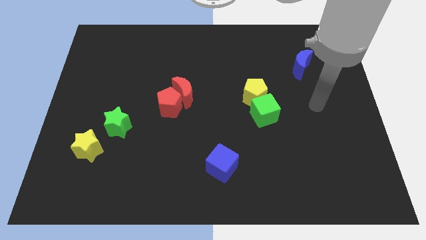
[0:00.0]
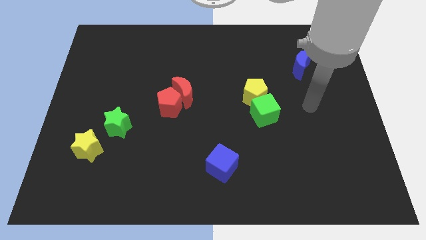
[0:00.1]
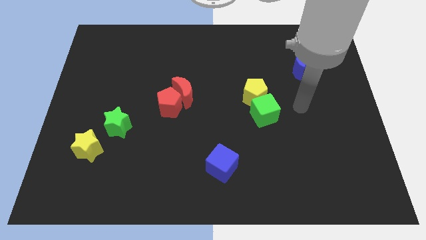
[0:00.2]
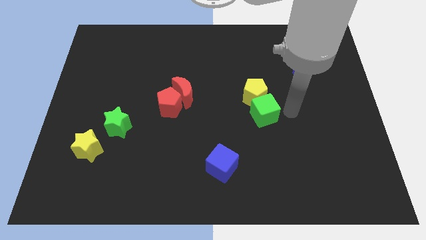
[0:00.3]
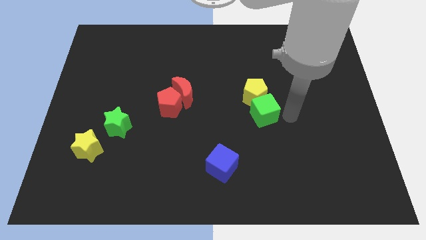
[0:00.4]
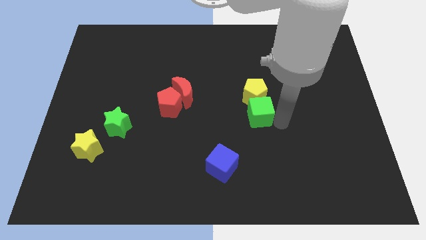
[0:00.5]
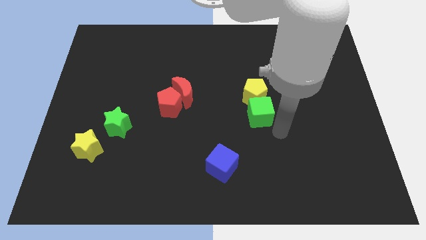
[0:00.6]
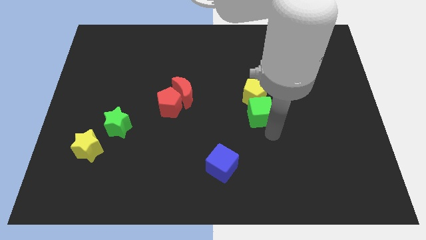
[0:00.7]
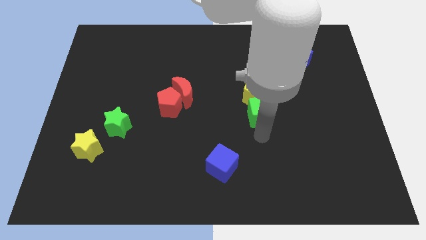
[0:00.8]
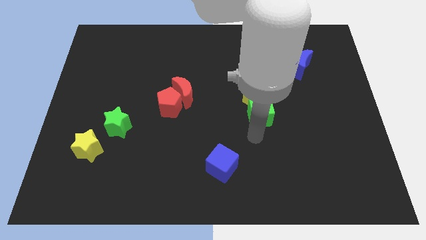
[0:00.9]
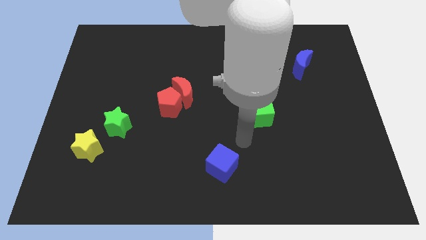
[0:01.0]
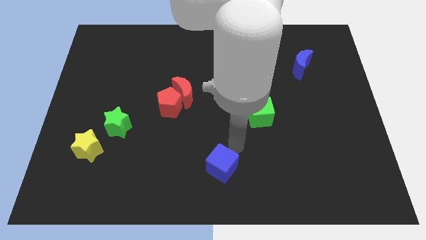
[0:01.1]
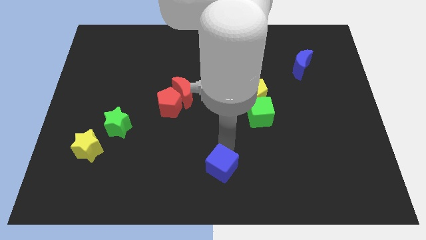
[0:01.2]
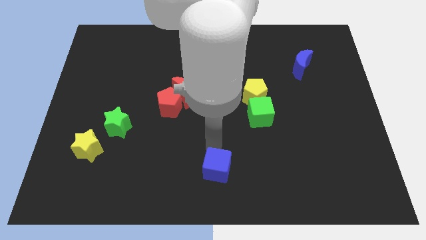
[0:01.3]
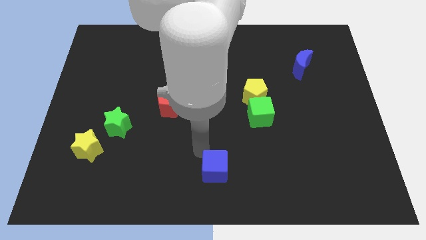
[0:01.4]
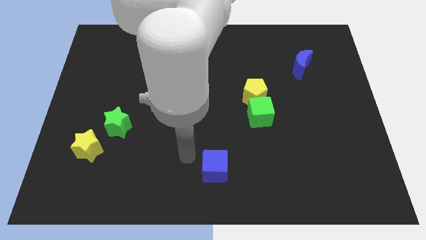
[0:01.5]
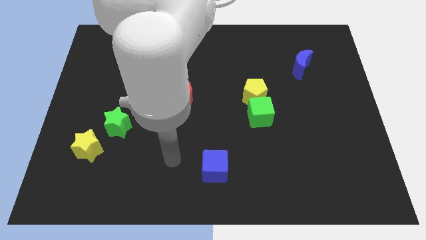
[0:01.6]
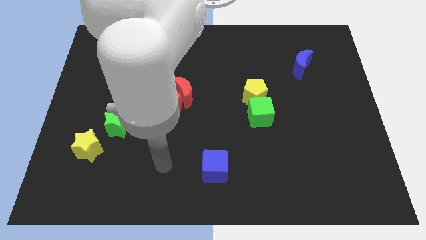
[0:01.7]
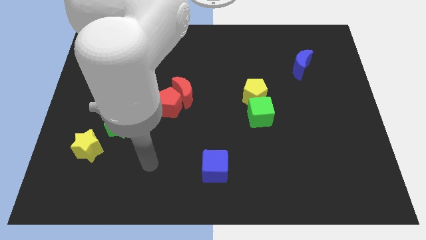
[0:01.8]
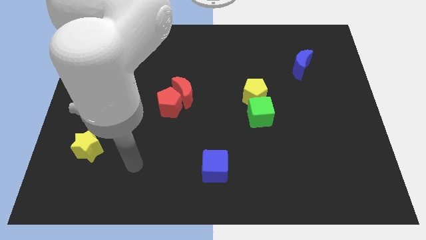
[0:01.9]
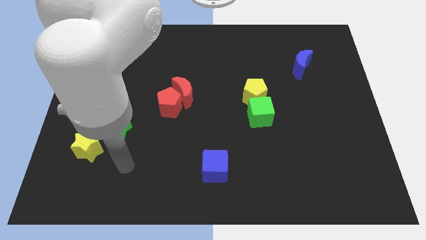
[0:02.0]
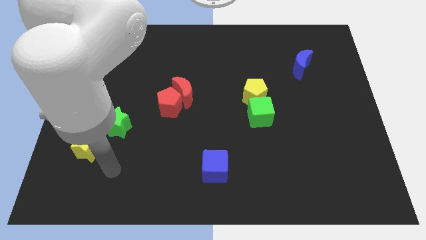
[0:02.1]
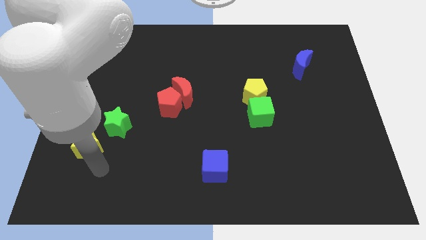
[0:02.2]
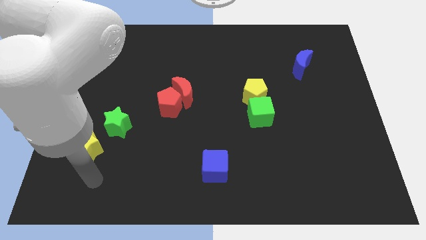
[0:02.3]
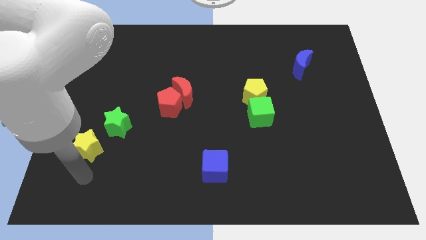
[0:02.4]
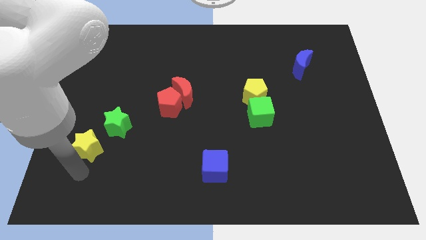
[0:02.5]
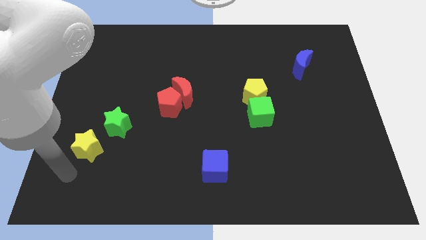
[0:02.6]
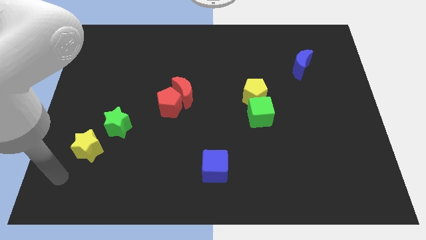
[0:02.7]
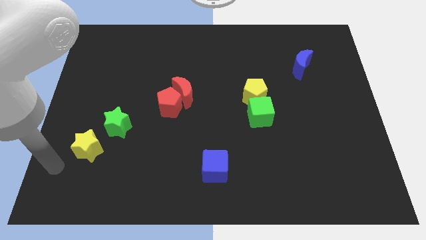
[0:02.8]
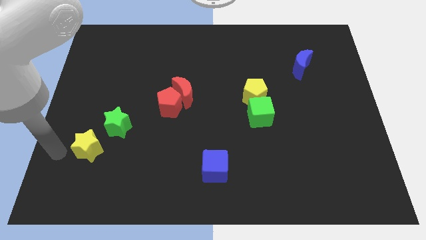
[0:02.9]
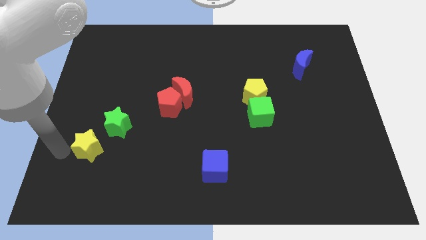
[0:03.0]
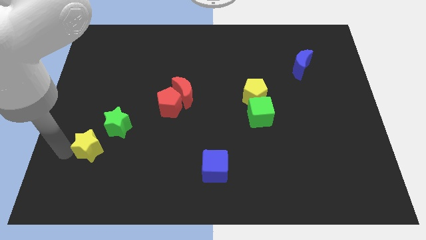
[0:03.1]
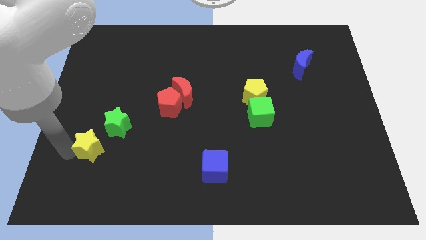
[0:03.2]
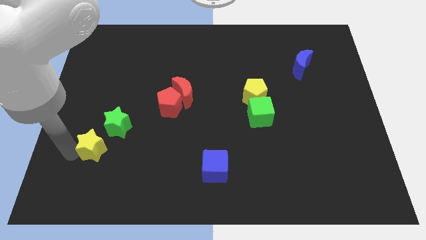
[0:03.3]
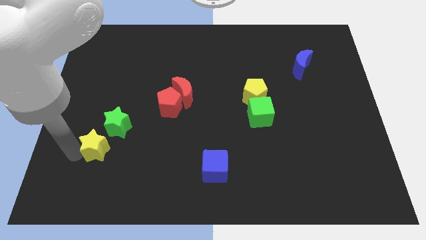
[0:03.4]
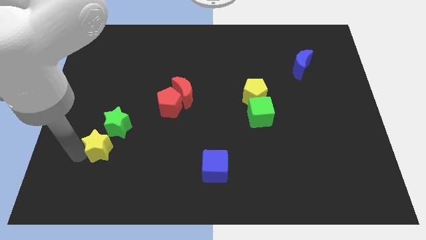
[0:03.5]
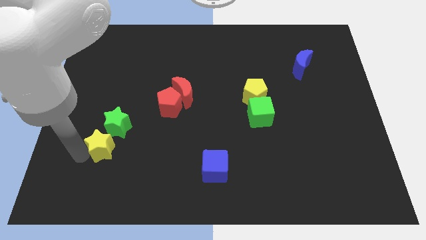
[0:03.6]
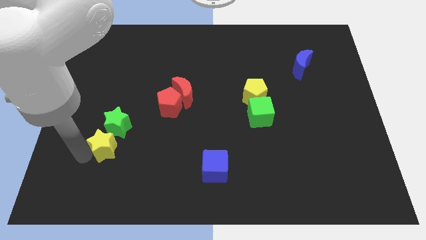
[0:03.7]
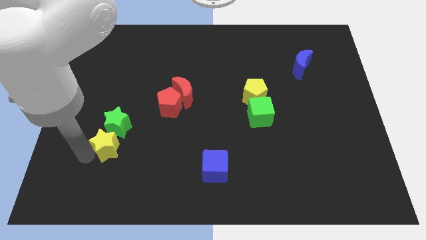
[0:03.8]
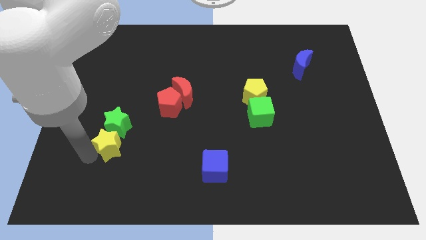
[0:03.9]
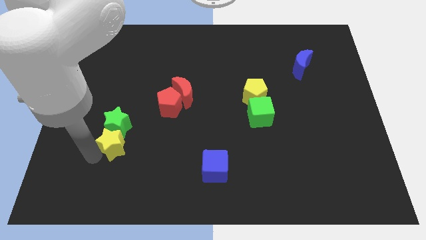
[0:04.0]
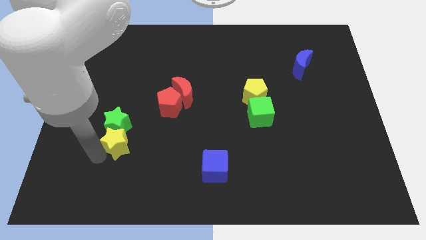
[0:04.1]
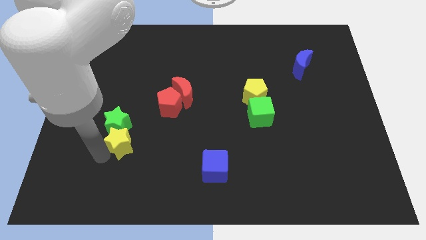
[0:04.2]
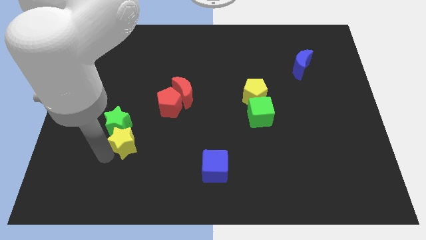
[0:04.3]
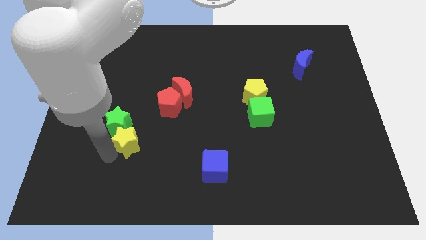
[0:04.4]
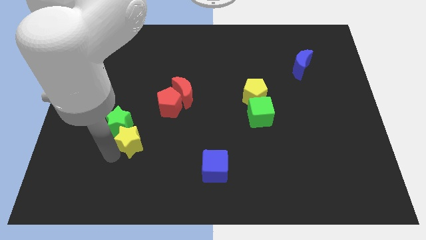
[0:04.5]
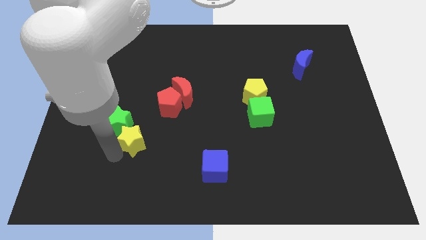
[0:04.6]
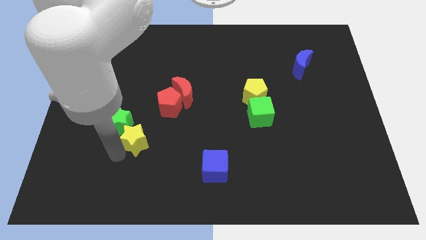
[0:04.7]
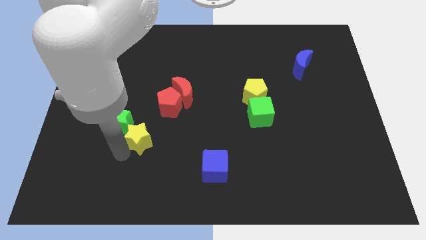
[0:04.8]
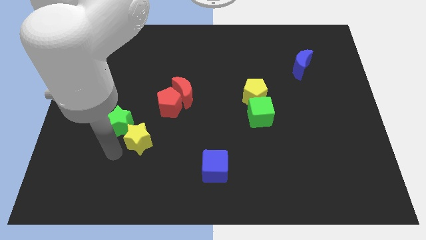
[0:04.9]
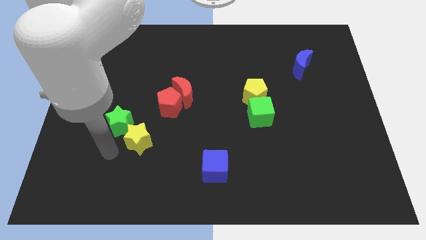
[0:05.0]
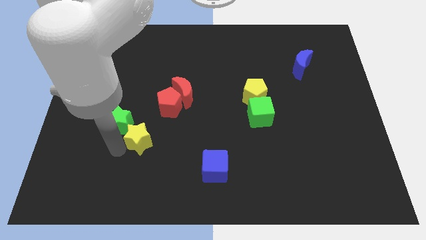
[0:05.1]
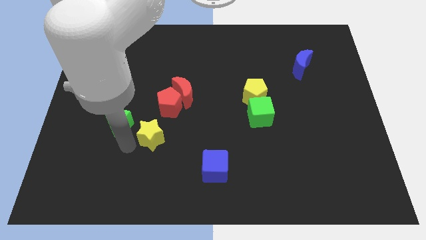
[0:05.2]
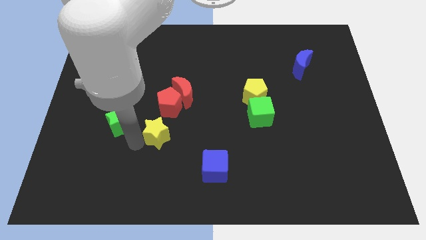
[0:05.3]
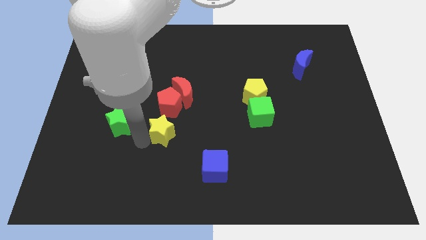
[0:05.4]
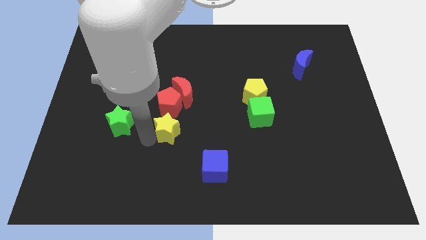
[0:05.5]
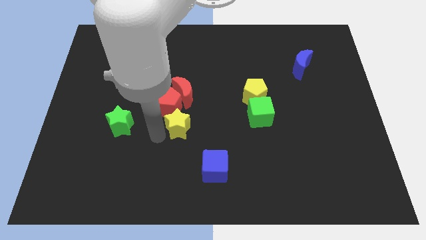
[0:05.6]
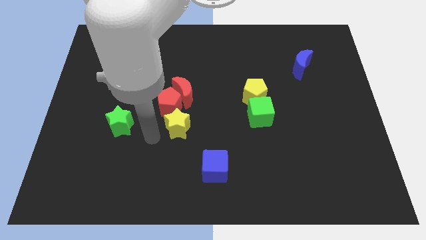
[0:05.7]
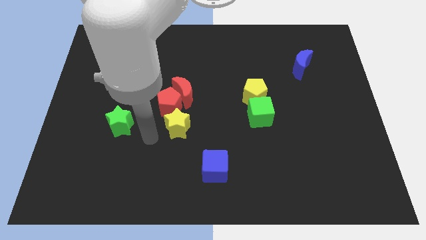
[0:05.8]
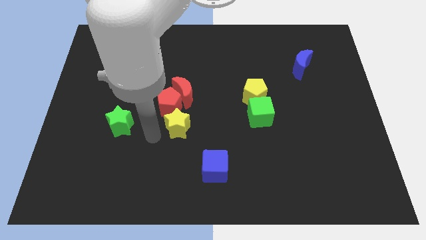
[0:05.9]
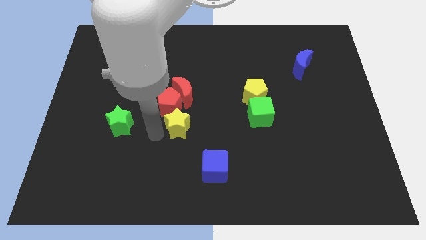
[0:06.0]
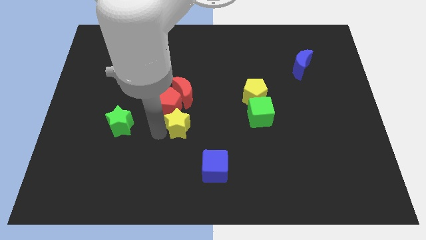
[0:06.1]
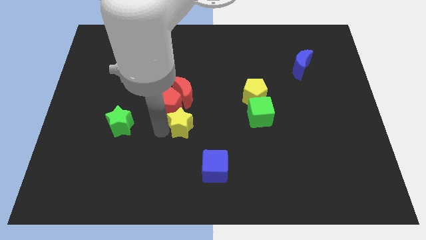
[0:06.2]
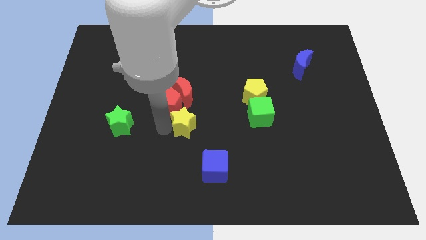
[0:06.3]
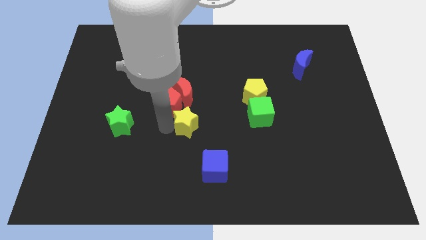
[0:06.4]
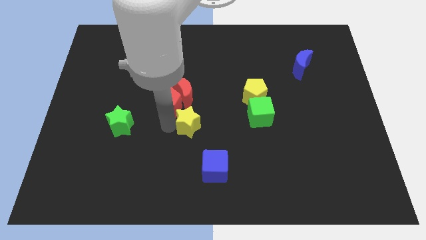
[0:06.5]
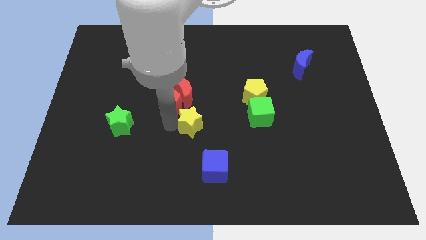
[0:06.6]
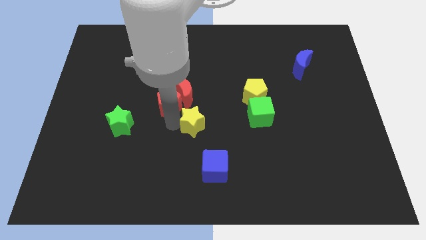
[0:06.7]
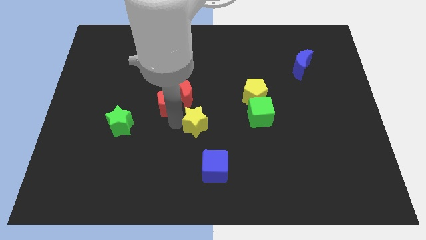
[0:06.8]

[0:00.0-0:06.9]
push the yellow star to the left of the green cube

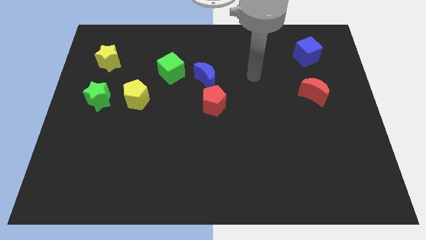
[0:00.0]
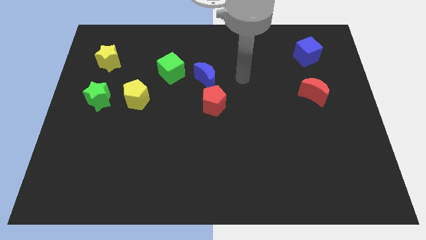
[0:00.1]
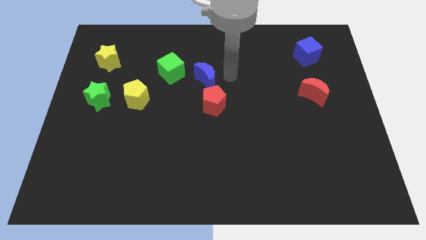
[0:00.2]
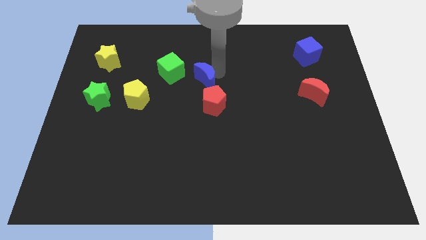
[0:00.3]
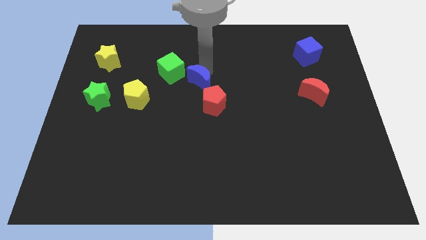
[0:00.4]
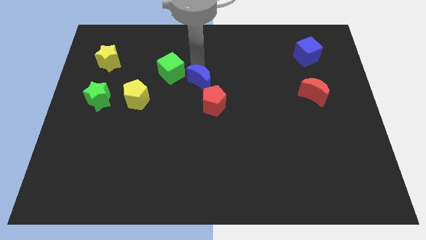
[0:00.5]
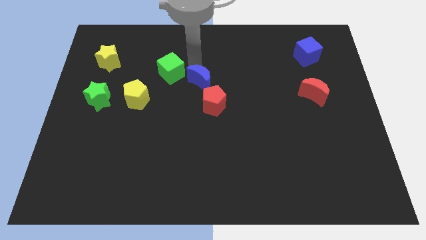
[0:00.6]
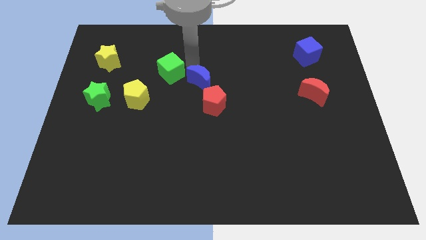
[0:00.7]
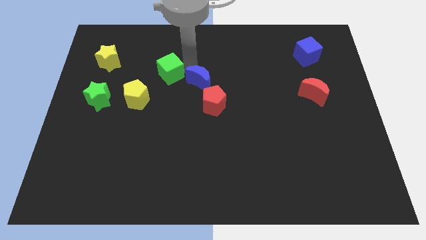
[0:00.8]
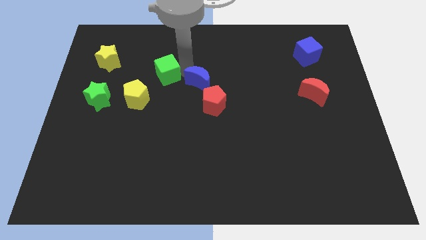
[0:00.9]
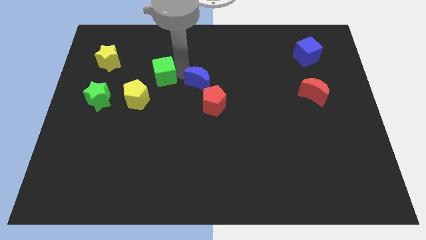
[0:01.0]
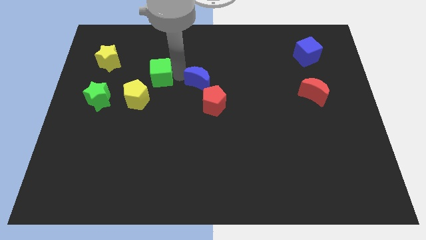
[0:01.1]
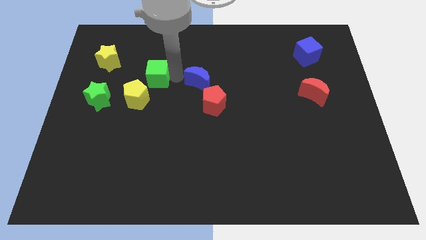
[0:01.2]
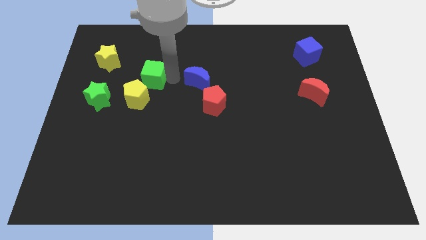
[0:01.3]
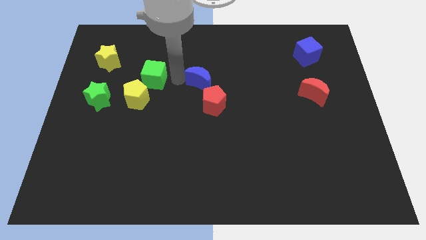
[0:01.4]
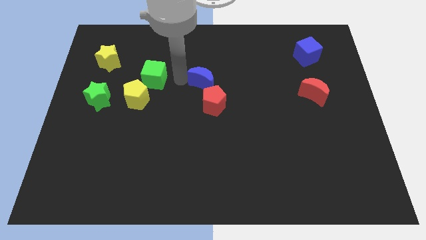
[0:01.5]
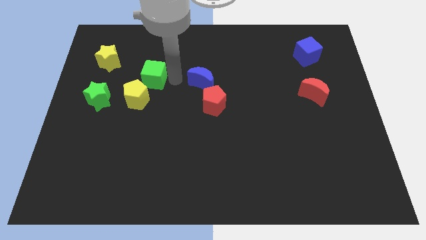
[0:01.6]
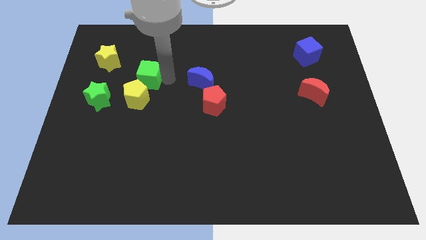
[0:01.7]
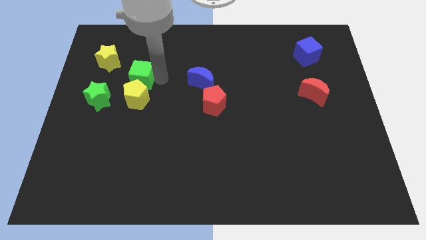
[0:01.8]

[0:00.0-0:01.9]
push the green cube to the bottom right side of the yellow star
